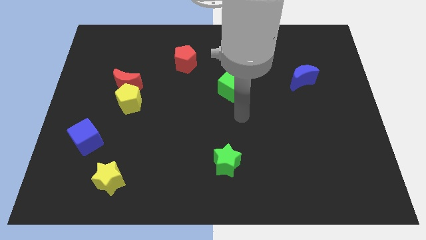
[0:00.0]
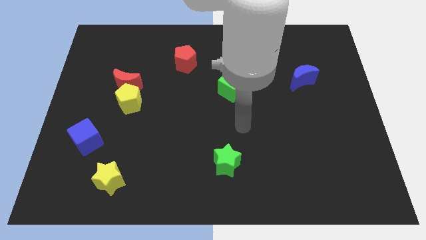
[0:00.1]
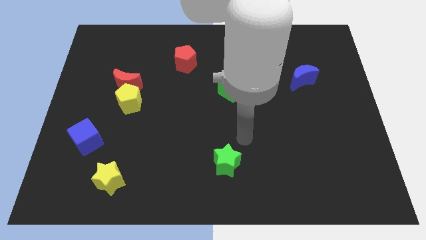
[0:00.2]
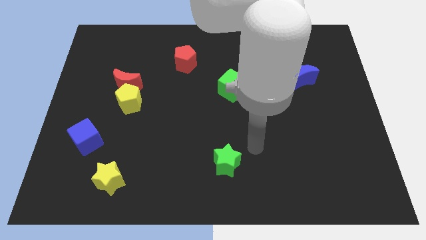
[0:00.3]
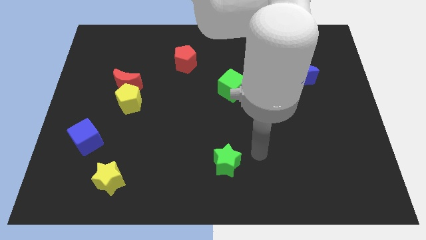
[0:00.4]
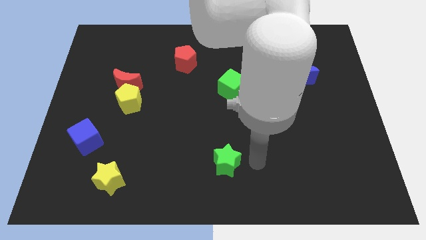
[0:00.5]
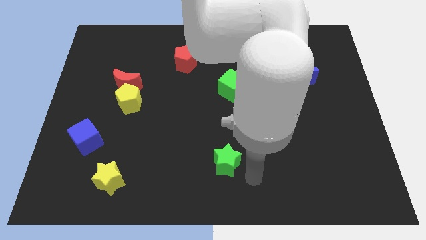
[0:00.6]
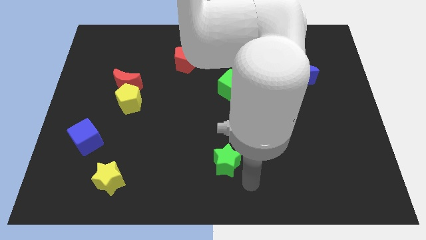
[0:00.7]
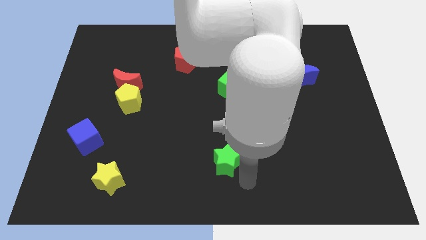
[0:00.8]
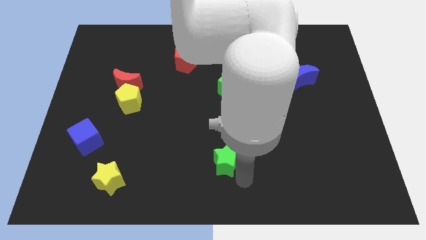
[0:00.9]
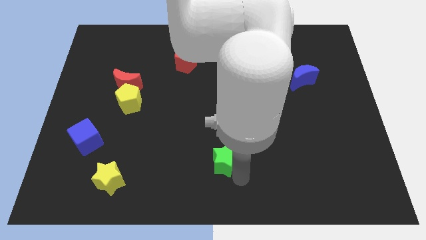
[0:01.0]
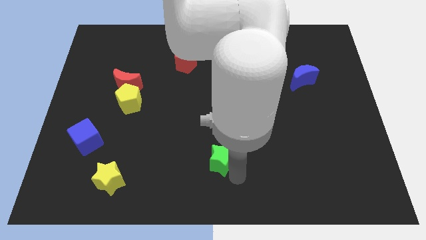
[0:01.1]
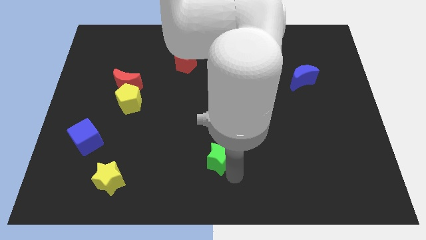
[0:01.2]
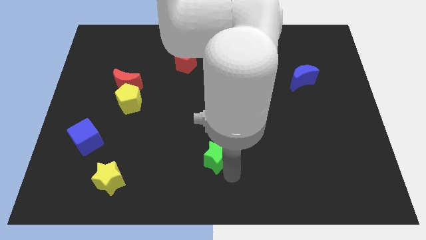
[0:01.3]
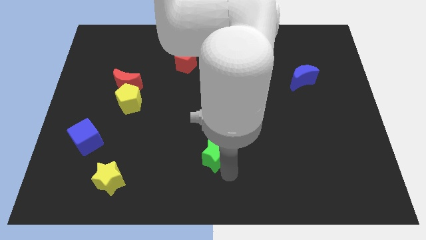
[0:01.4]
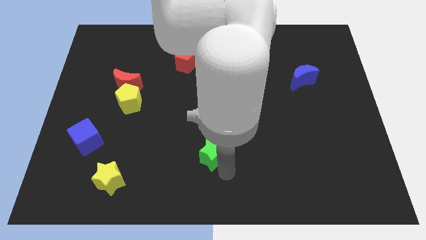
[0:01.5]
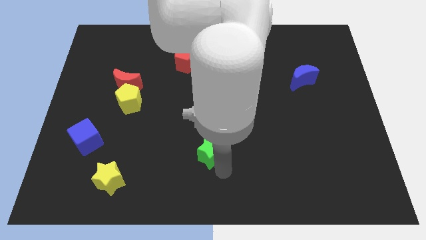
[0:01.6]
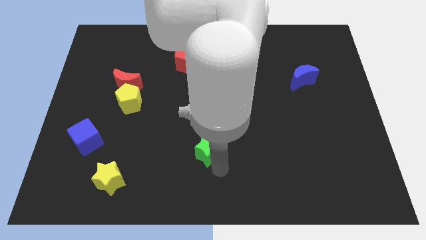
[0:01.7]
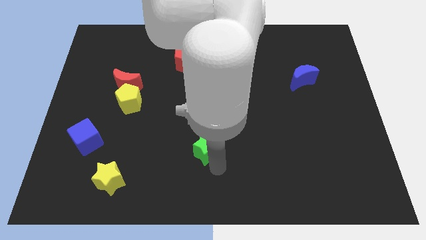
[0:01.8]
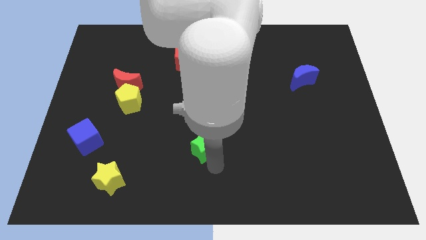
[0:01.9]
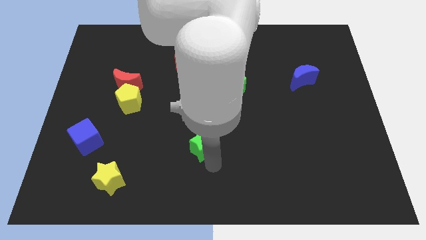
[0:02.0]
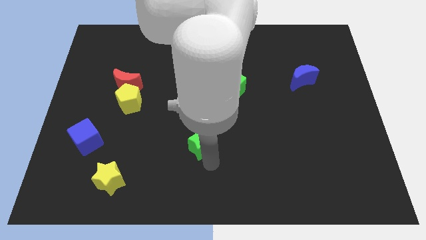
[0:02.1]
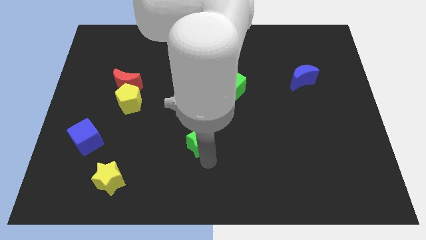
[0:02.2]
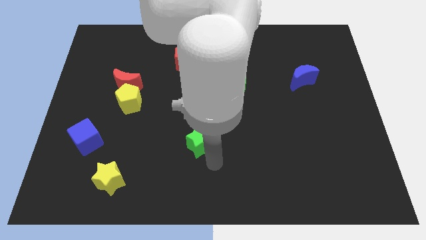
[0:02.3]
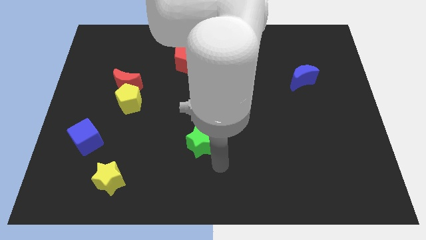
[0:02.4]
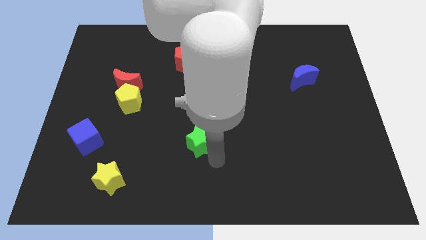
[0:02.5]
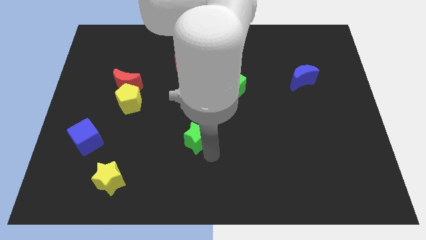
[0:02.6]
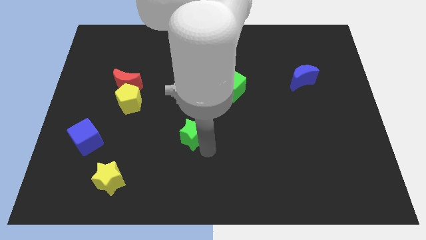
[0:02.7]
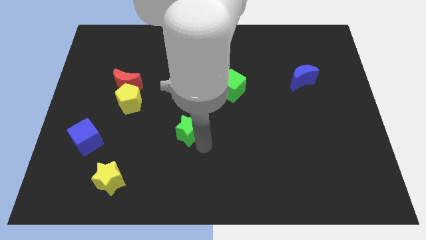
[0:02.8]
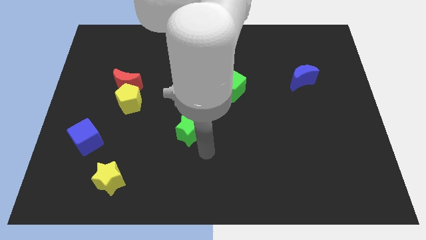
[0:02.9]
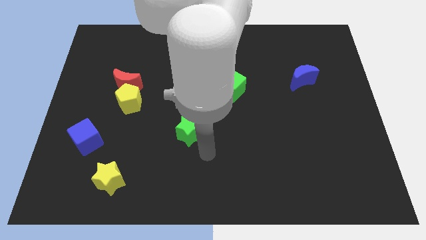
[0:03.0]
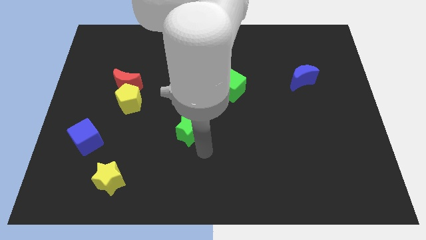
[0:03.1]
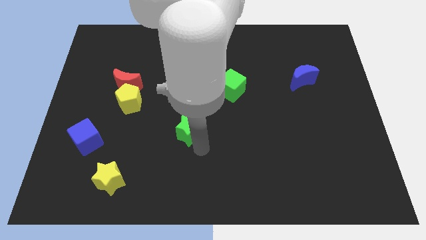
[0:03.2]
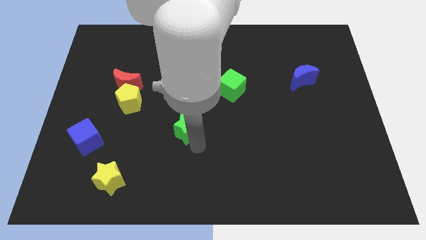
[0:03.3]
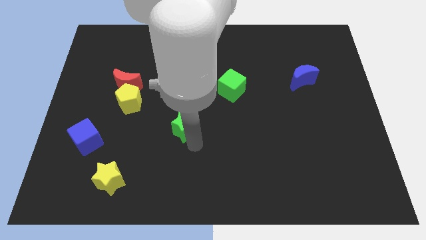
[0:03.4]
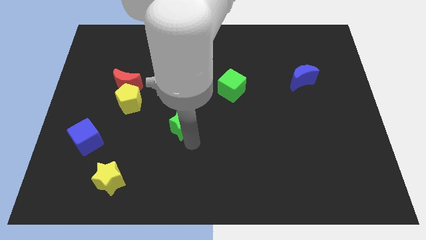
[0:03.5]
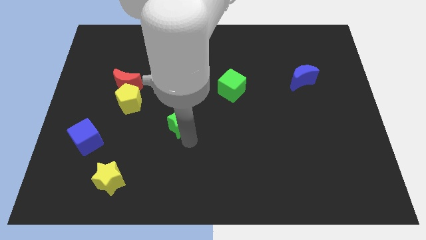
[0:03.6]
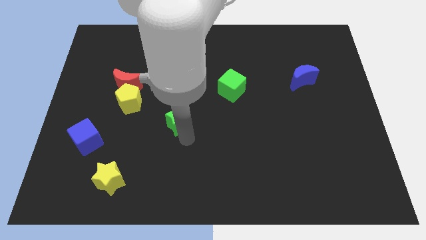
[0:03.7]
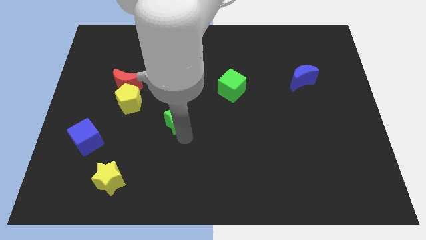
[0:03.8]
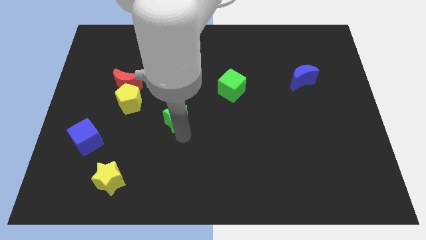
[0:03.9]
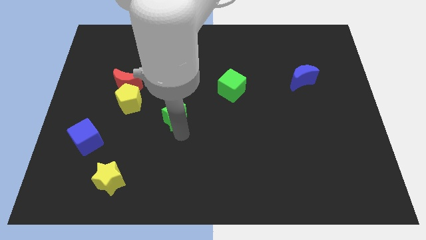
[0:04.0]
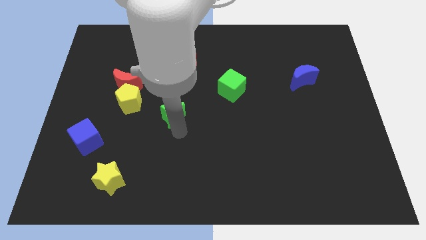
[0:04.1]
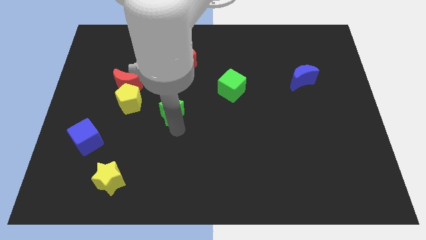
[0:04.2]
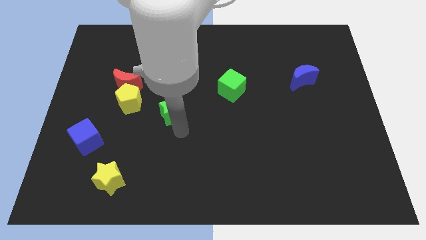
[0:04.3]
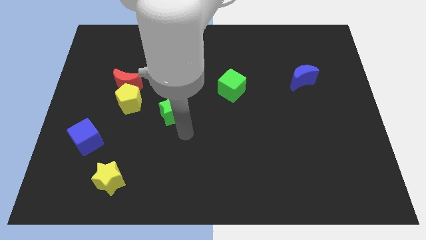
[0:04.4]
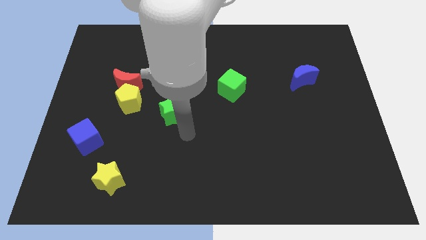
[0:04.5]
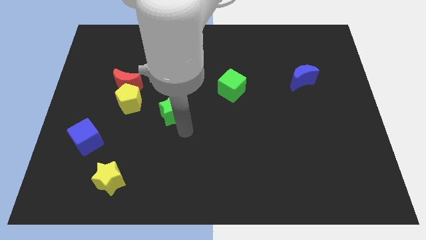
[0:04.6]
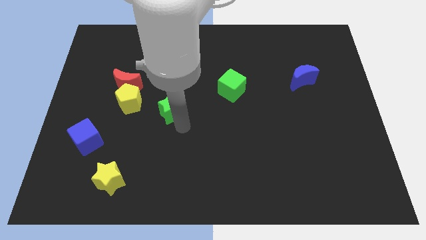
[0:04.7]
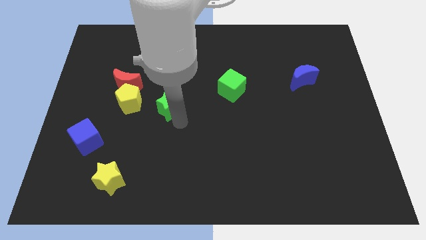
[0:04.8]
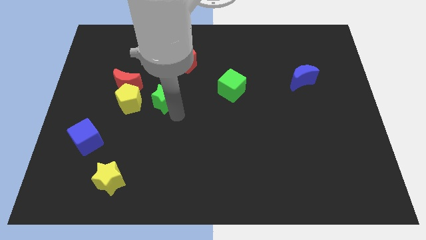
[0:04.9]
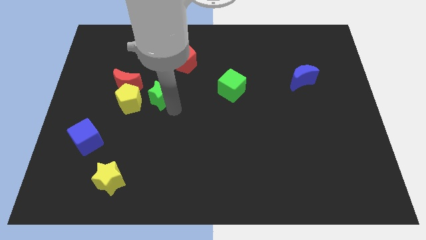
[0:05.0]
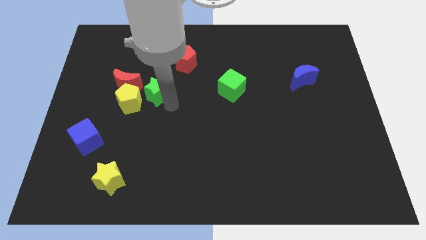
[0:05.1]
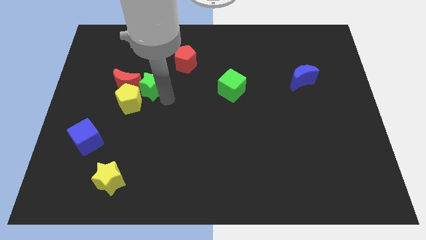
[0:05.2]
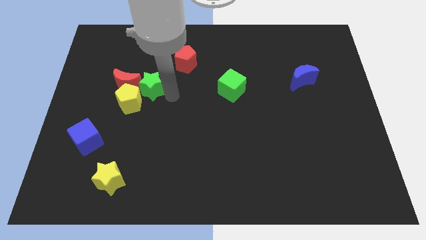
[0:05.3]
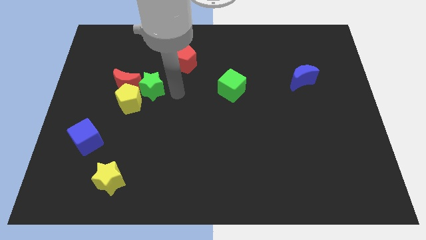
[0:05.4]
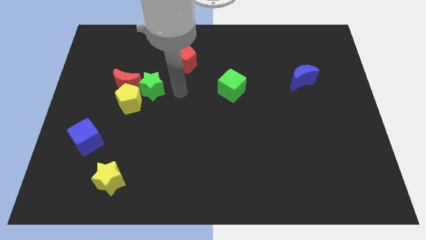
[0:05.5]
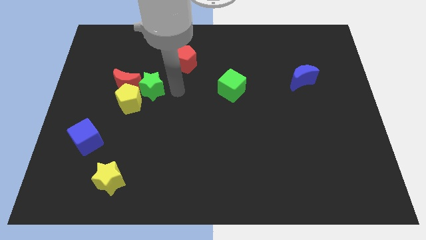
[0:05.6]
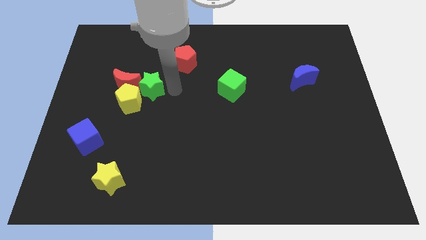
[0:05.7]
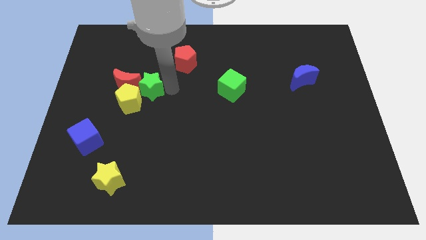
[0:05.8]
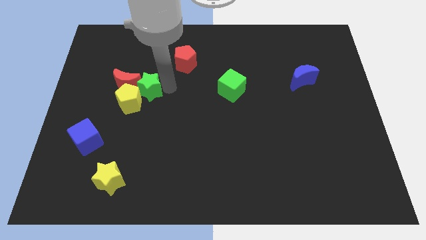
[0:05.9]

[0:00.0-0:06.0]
move the green star next to the red moon

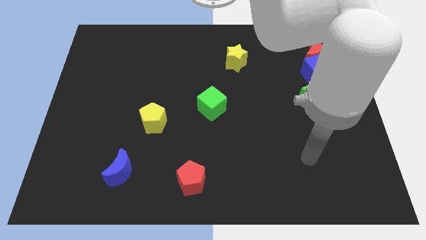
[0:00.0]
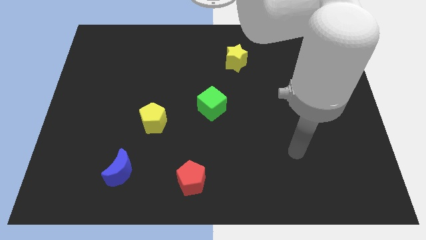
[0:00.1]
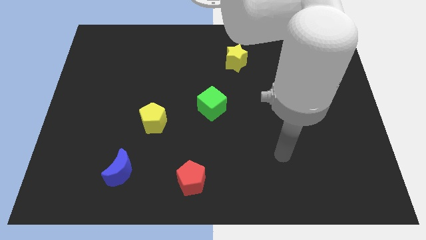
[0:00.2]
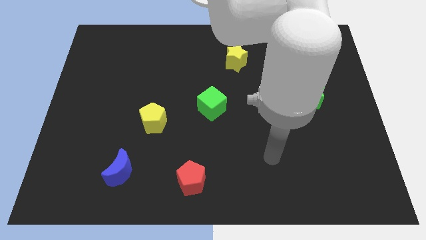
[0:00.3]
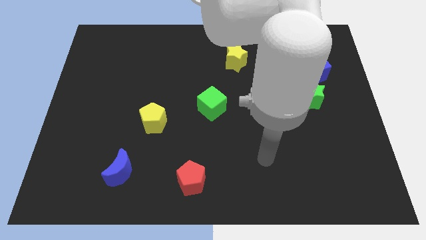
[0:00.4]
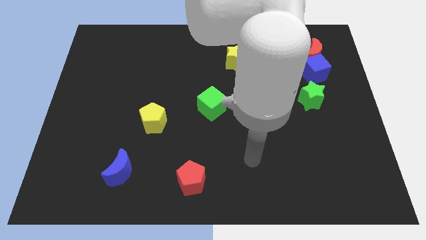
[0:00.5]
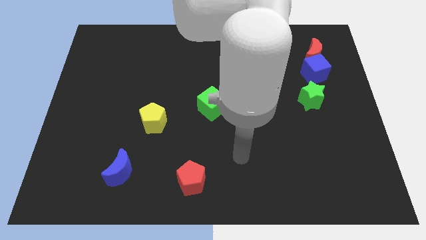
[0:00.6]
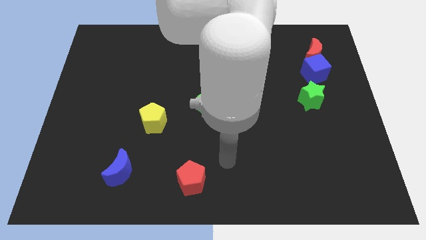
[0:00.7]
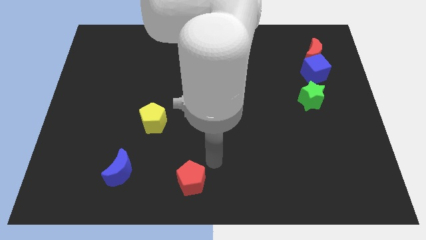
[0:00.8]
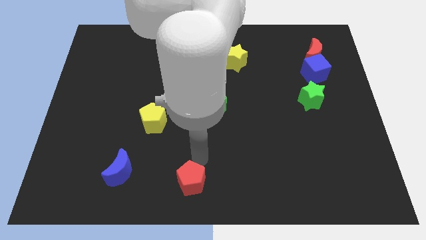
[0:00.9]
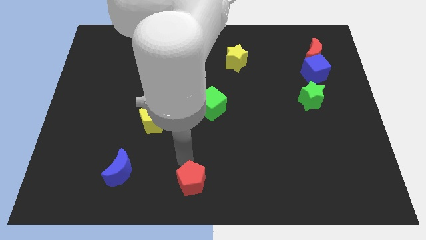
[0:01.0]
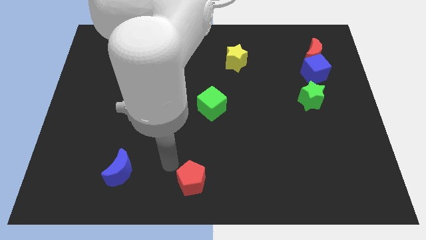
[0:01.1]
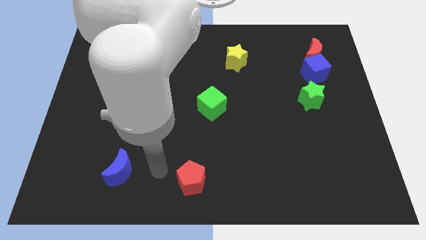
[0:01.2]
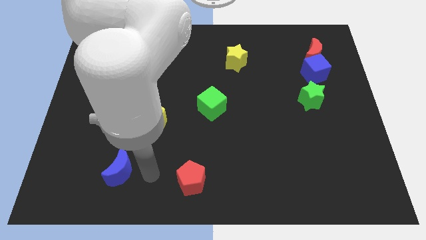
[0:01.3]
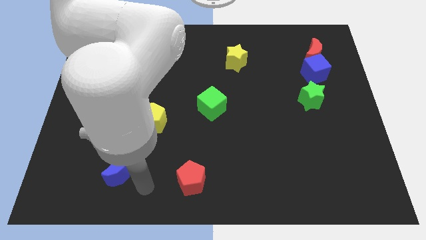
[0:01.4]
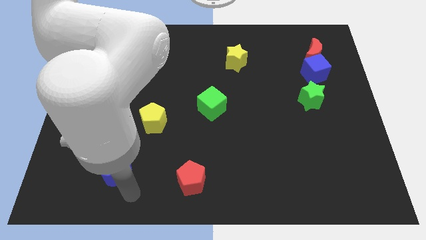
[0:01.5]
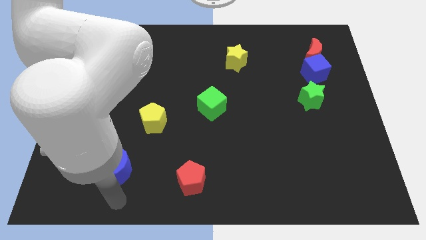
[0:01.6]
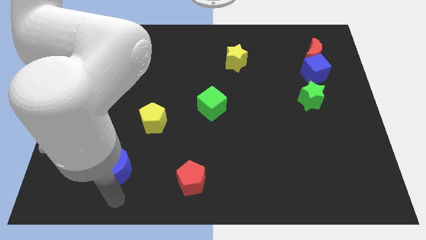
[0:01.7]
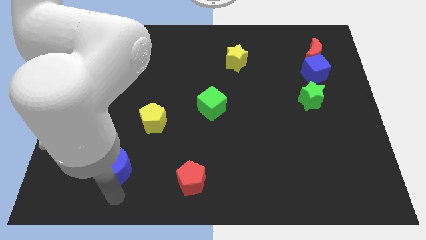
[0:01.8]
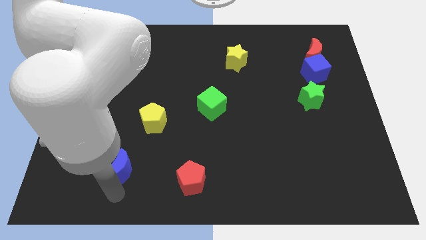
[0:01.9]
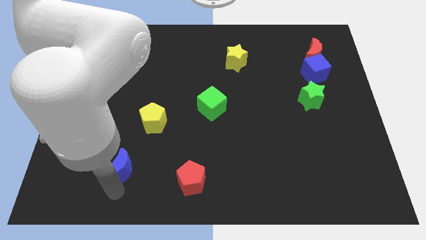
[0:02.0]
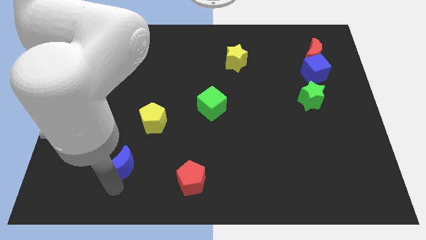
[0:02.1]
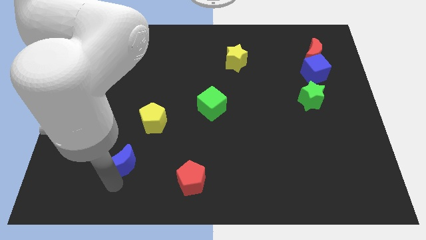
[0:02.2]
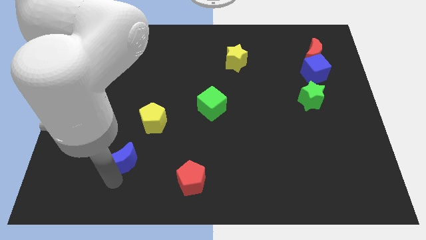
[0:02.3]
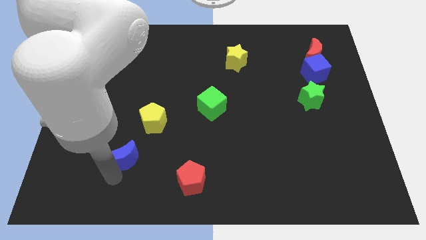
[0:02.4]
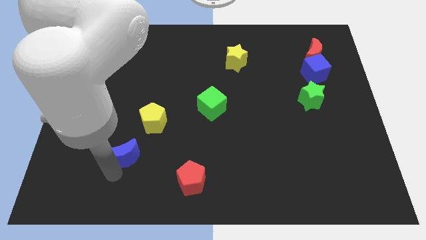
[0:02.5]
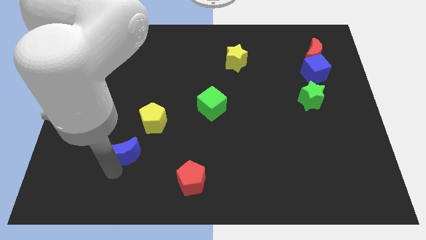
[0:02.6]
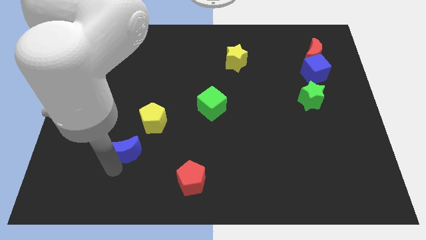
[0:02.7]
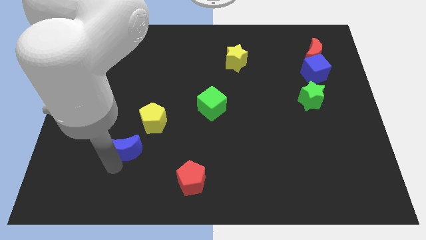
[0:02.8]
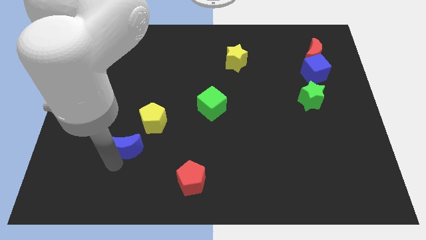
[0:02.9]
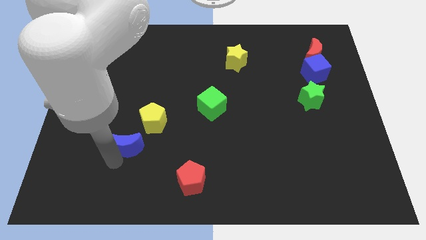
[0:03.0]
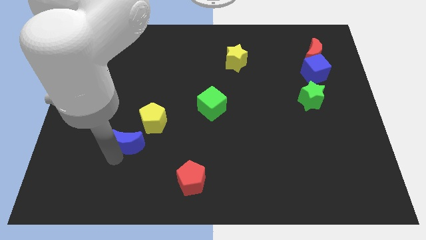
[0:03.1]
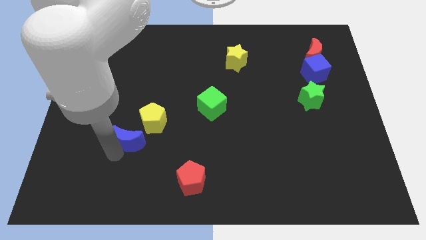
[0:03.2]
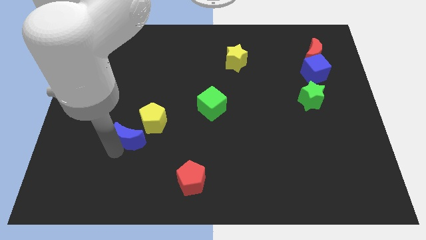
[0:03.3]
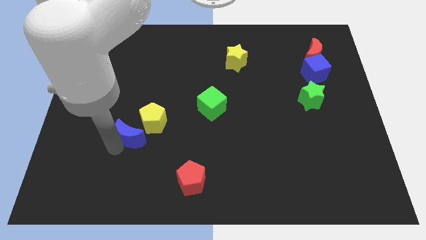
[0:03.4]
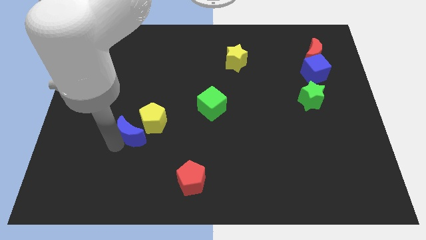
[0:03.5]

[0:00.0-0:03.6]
move the blue moon towards the yellow pentagon
